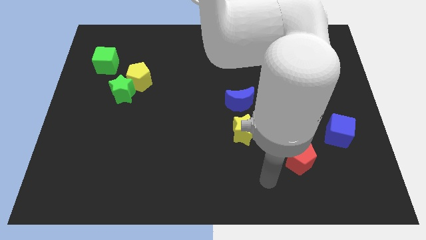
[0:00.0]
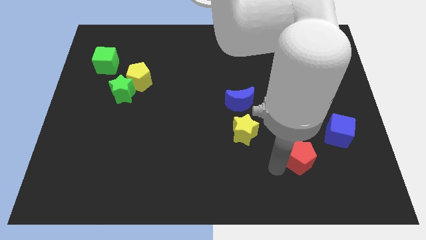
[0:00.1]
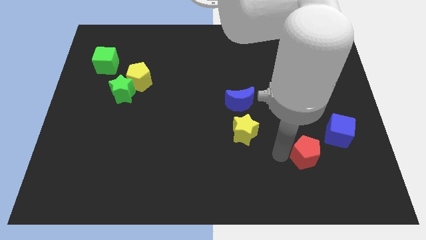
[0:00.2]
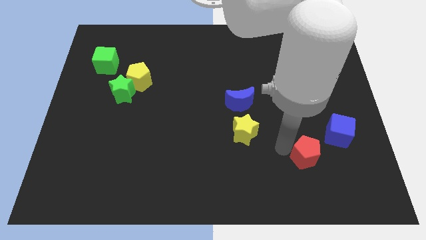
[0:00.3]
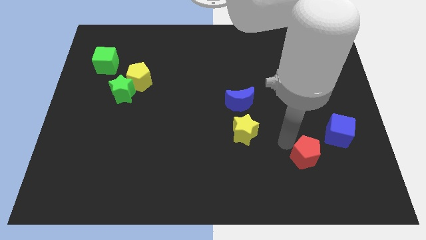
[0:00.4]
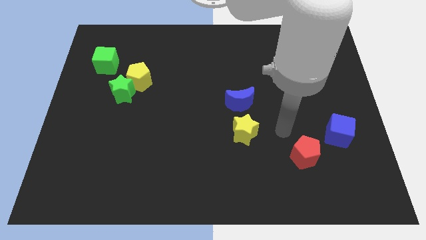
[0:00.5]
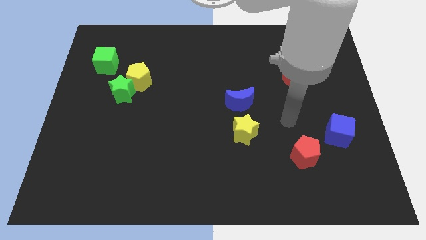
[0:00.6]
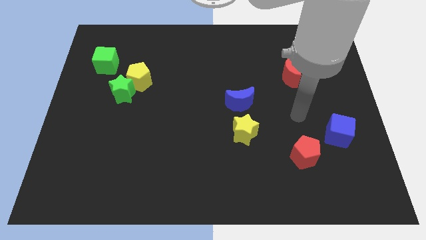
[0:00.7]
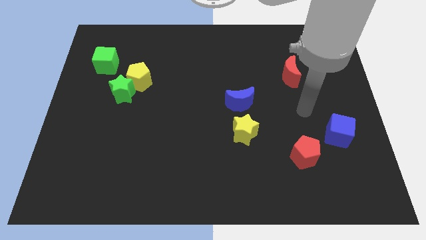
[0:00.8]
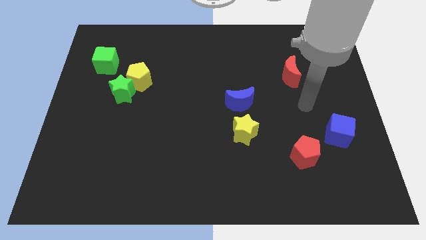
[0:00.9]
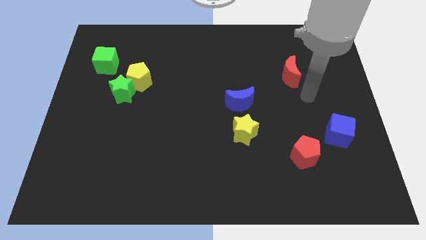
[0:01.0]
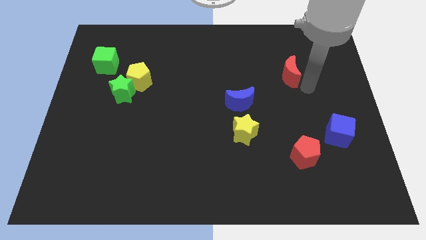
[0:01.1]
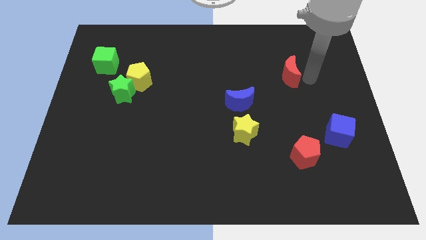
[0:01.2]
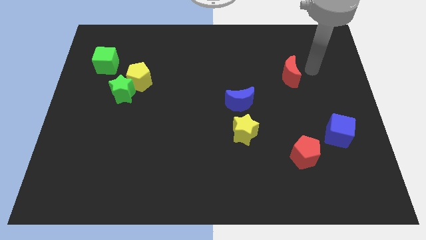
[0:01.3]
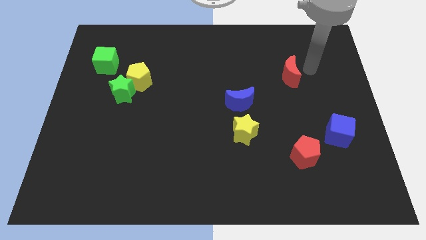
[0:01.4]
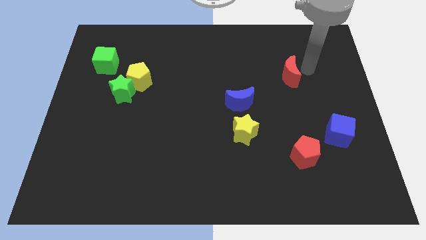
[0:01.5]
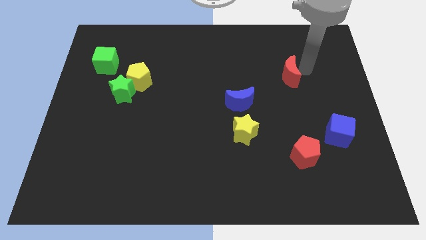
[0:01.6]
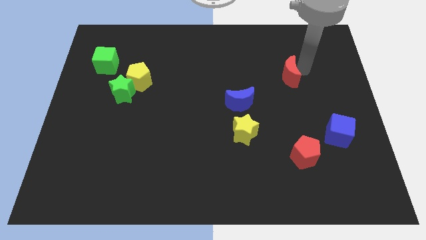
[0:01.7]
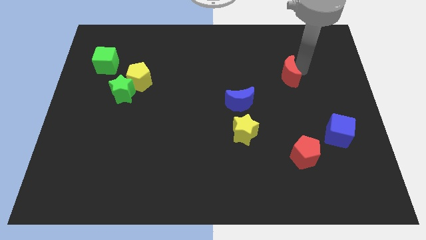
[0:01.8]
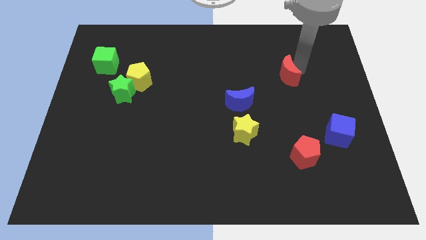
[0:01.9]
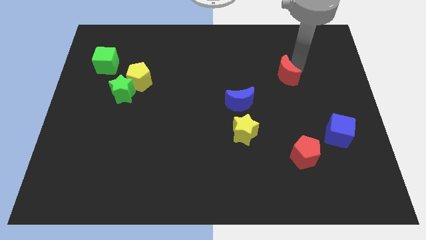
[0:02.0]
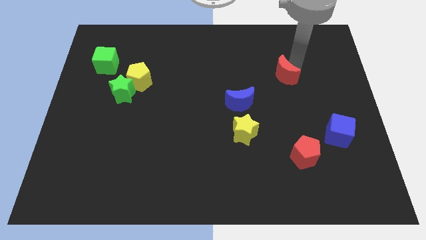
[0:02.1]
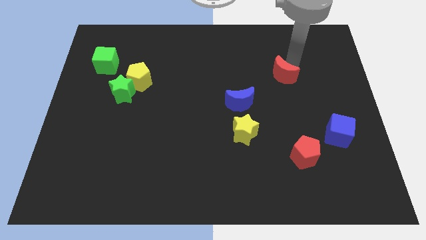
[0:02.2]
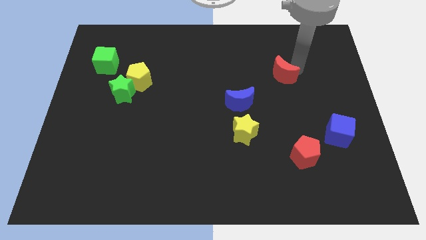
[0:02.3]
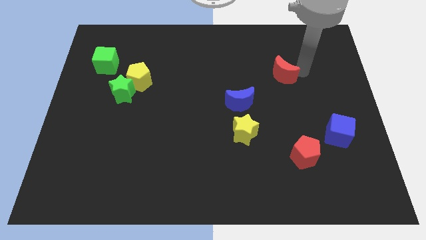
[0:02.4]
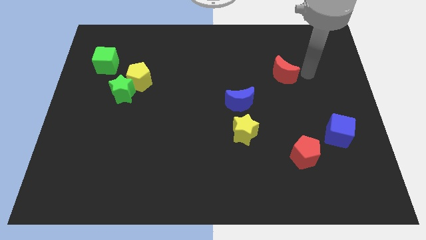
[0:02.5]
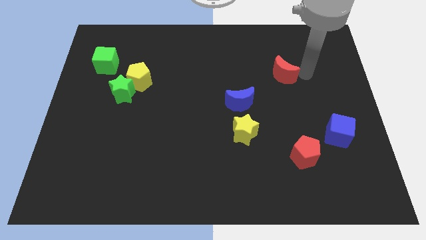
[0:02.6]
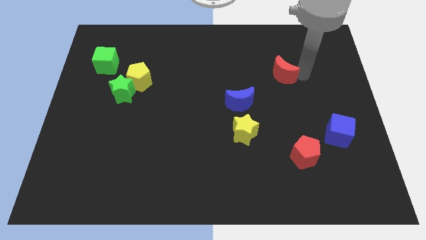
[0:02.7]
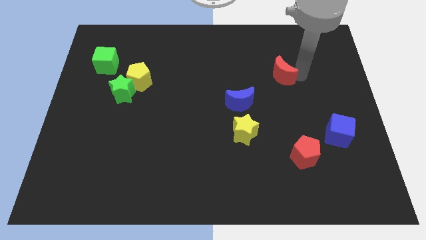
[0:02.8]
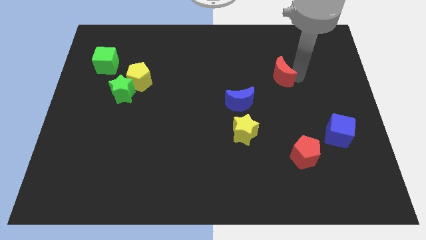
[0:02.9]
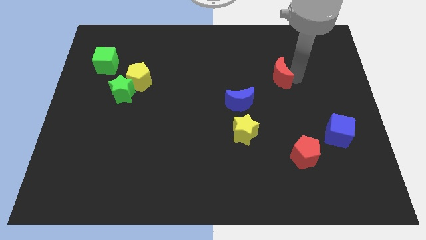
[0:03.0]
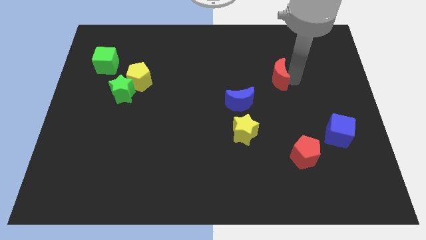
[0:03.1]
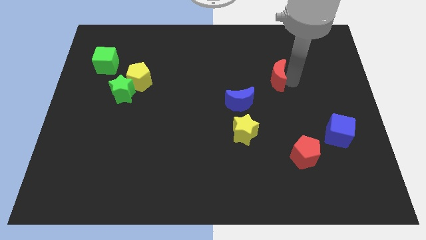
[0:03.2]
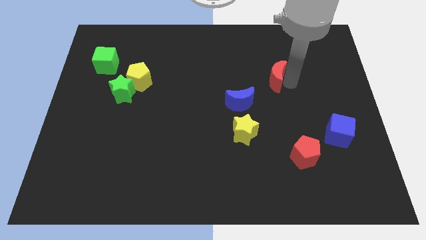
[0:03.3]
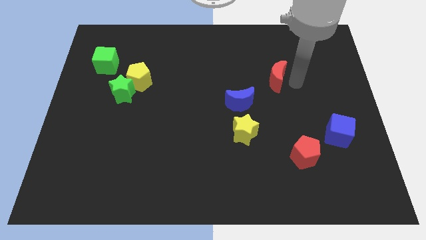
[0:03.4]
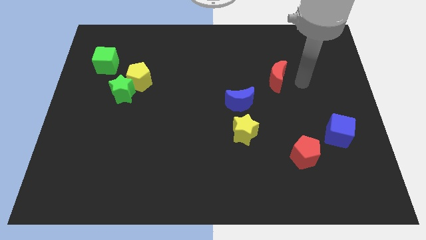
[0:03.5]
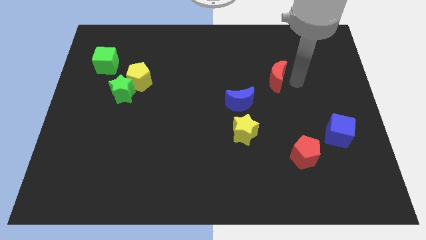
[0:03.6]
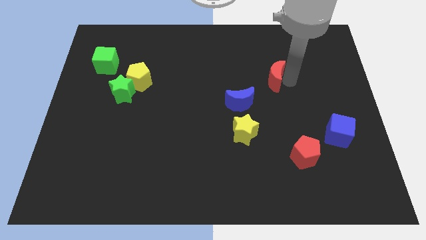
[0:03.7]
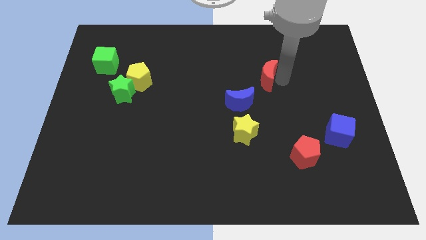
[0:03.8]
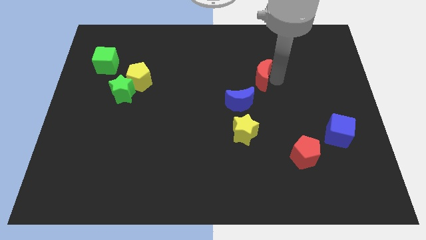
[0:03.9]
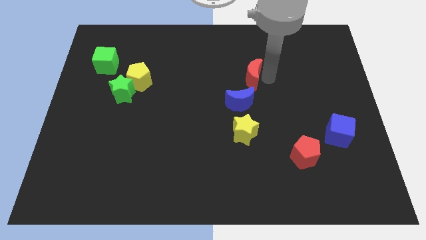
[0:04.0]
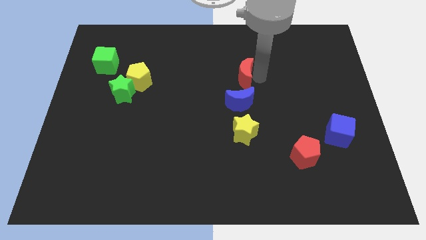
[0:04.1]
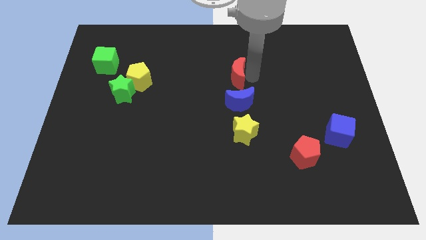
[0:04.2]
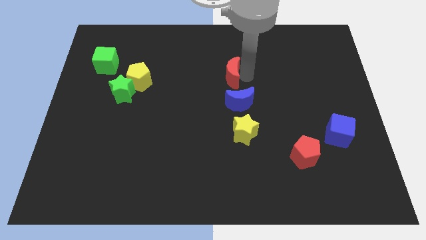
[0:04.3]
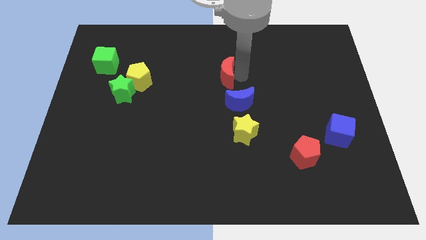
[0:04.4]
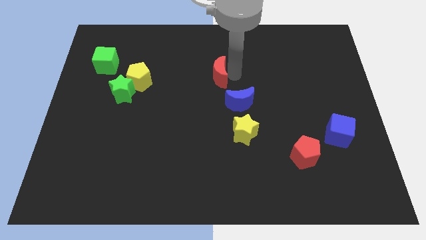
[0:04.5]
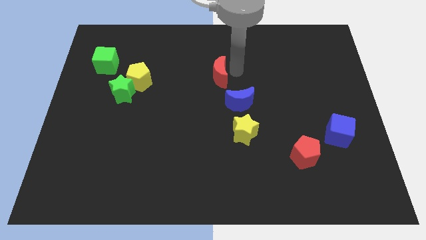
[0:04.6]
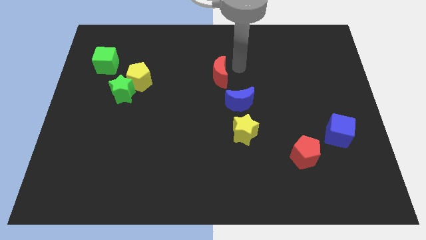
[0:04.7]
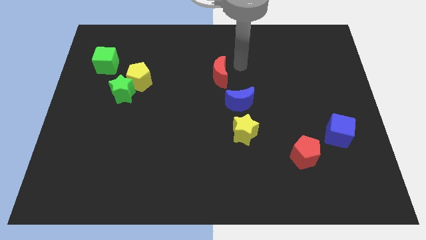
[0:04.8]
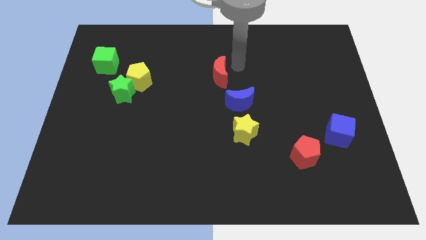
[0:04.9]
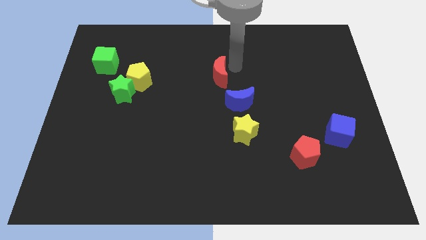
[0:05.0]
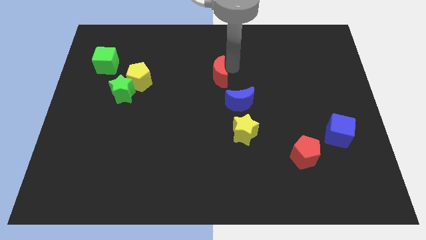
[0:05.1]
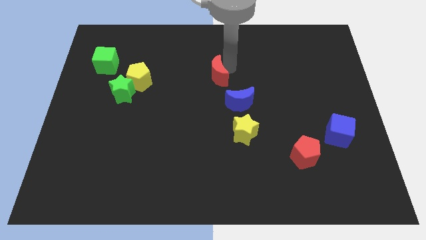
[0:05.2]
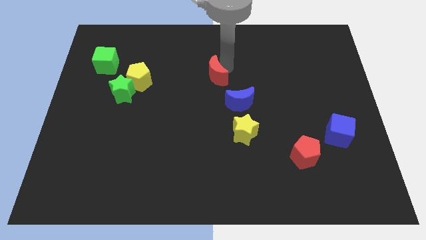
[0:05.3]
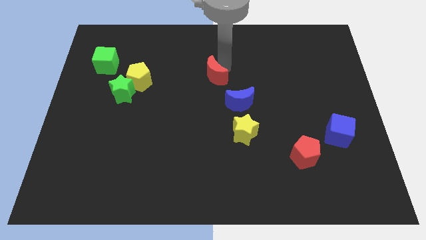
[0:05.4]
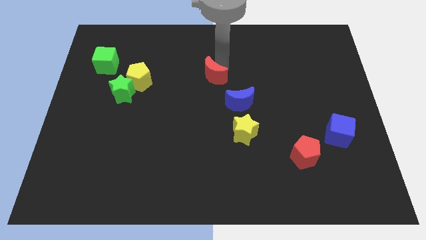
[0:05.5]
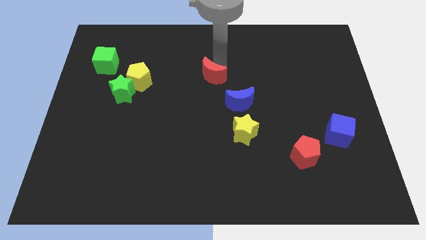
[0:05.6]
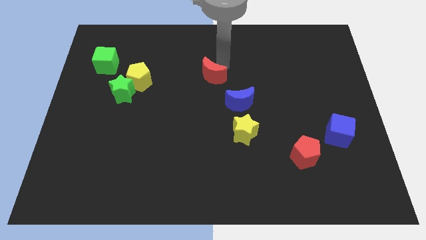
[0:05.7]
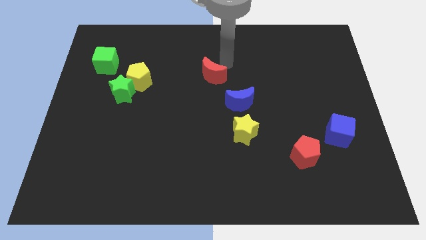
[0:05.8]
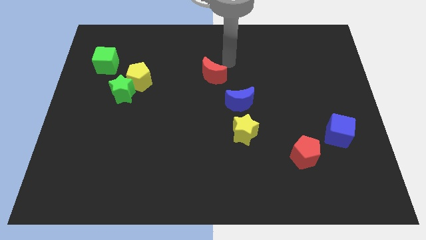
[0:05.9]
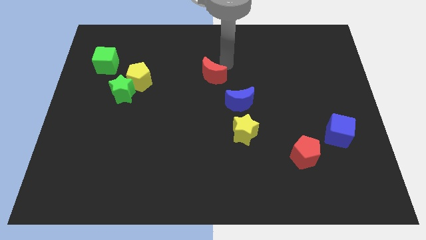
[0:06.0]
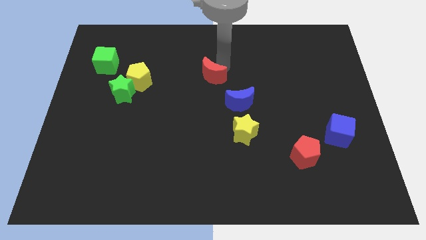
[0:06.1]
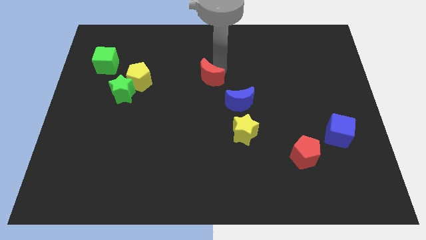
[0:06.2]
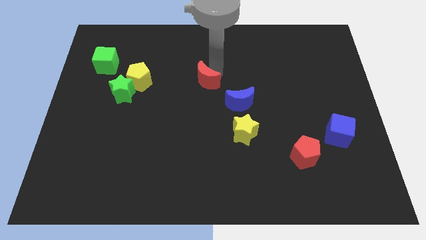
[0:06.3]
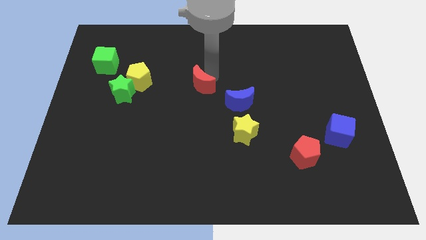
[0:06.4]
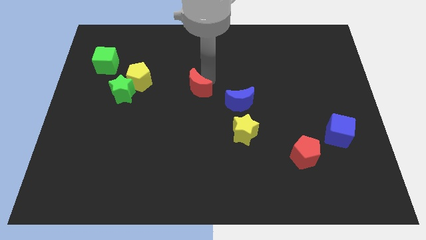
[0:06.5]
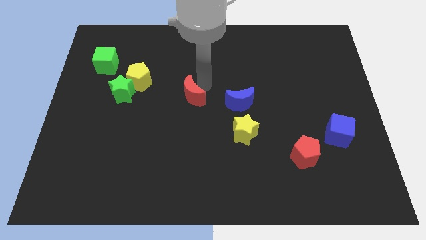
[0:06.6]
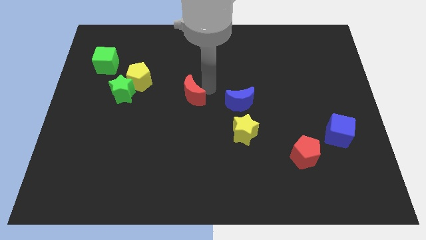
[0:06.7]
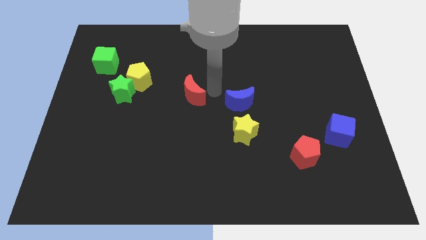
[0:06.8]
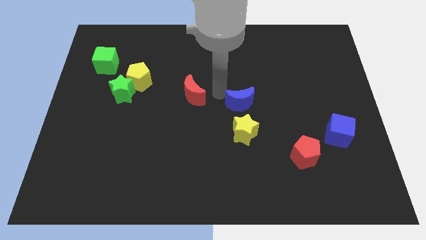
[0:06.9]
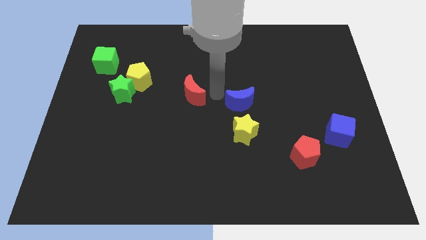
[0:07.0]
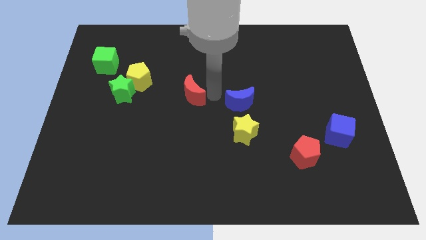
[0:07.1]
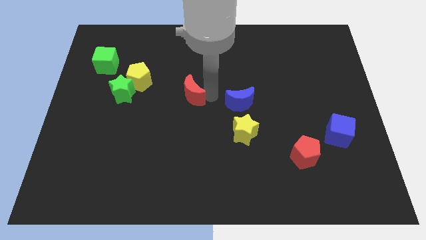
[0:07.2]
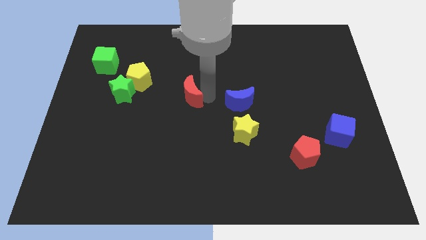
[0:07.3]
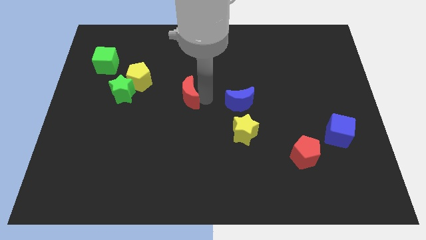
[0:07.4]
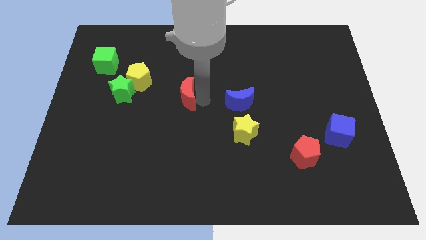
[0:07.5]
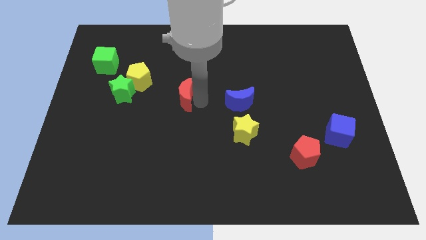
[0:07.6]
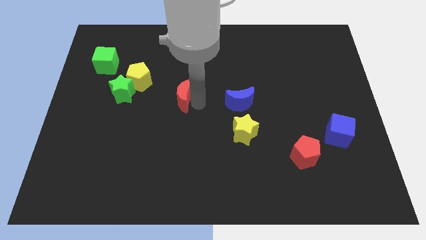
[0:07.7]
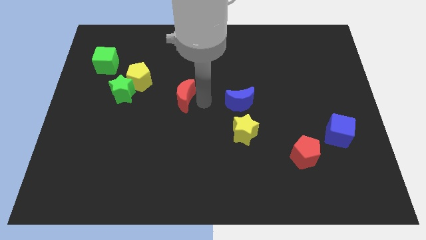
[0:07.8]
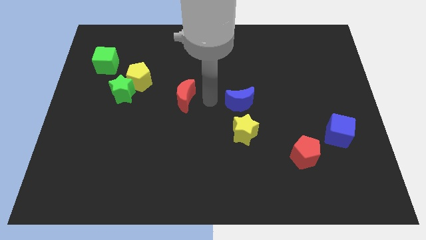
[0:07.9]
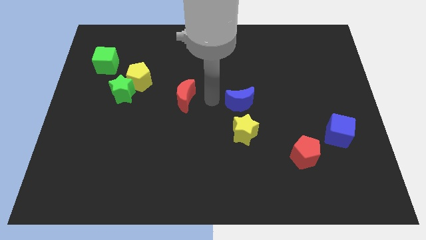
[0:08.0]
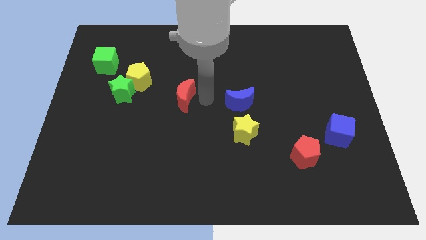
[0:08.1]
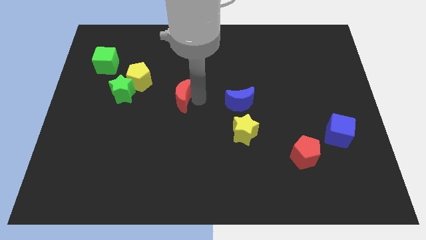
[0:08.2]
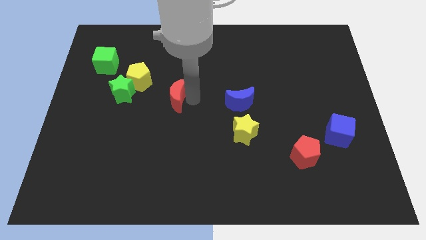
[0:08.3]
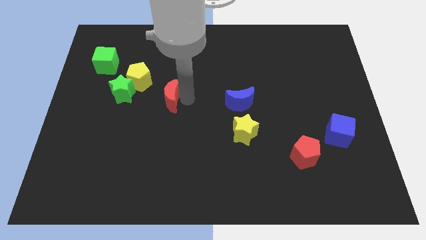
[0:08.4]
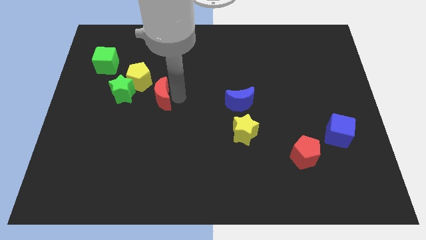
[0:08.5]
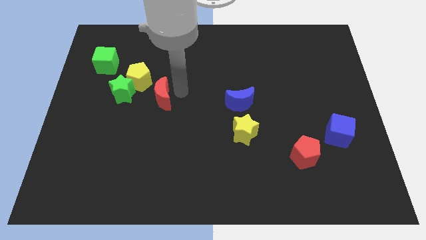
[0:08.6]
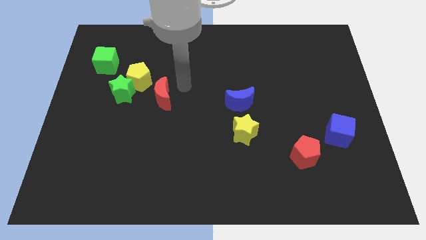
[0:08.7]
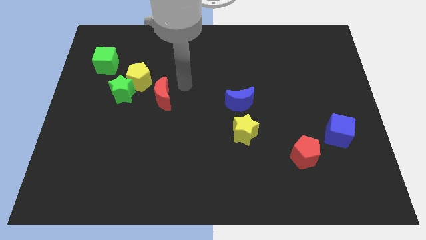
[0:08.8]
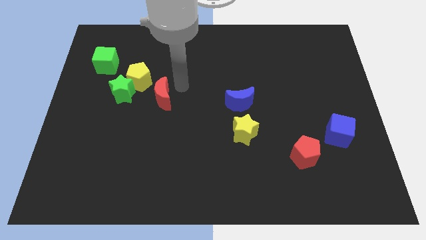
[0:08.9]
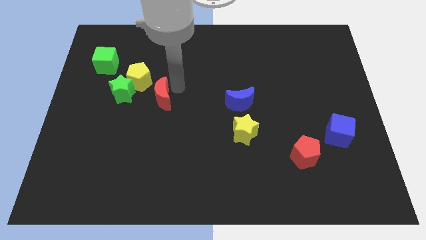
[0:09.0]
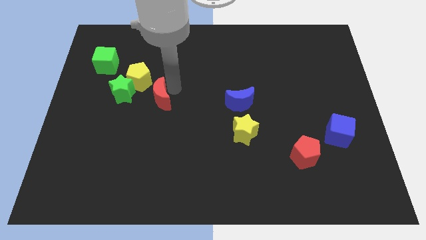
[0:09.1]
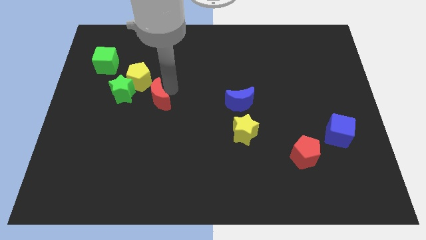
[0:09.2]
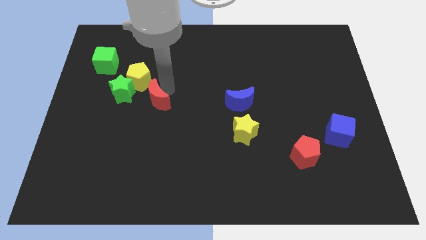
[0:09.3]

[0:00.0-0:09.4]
push the red moon to the bottom of the yellow pentagon
